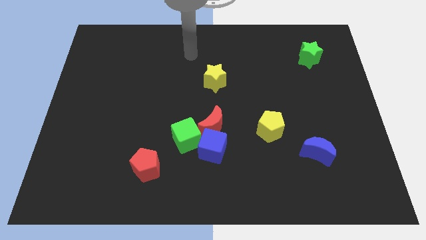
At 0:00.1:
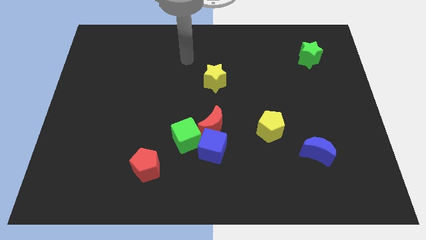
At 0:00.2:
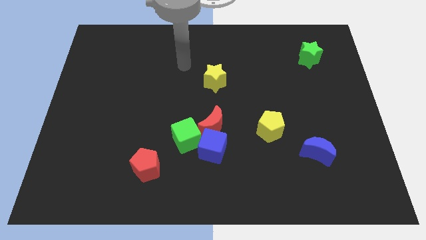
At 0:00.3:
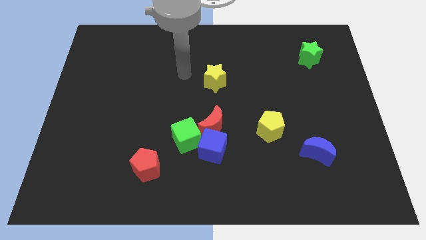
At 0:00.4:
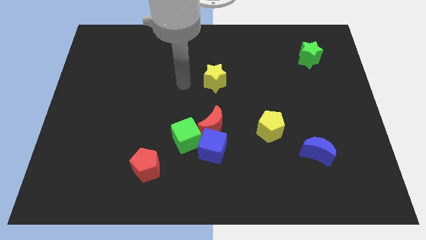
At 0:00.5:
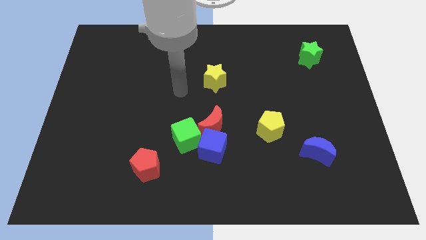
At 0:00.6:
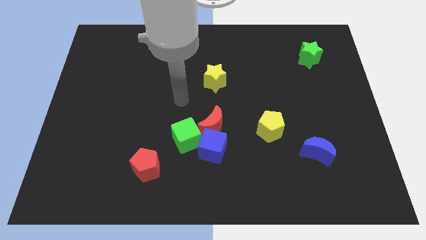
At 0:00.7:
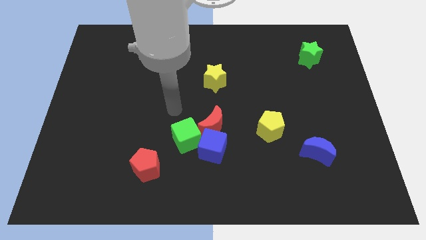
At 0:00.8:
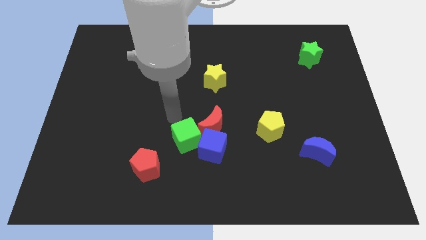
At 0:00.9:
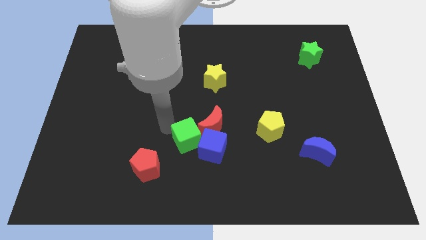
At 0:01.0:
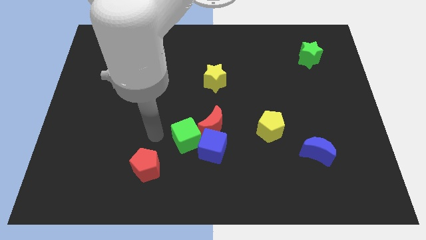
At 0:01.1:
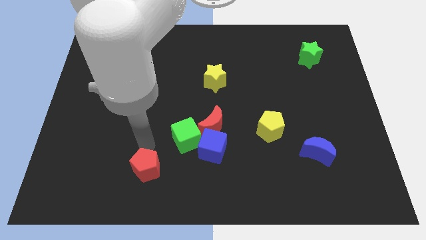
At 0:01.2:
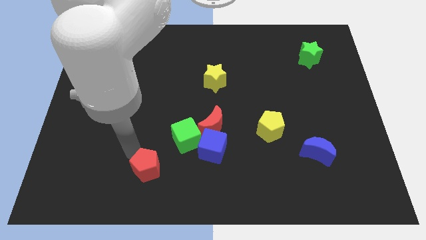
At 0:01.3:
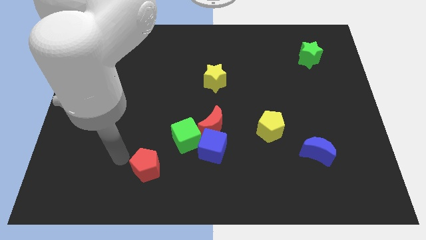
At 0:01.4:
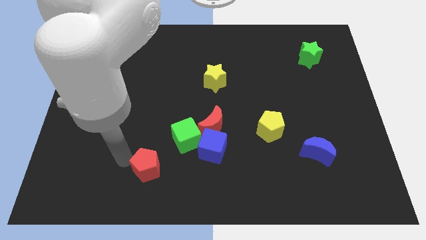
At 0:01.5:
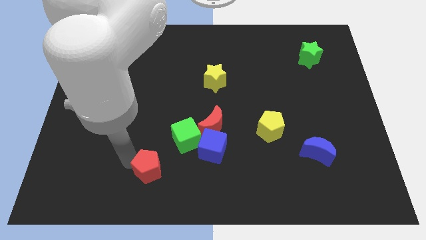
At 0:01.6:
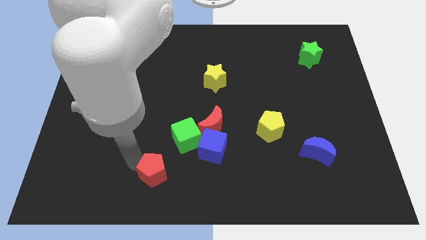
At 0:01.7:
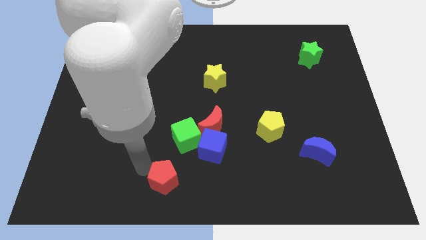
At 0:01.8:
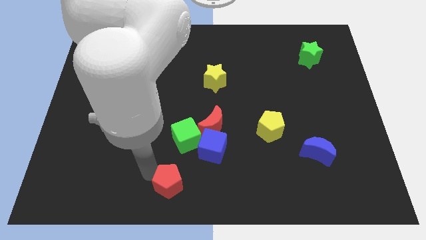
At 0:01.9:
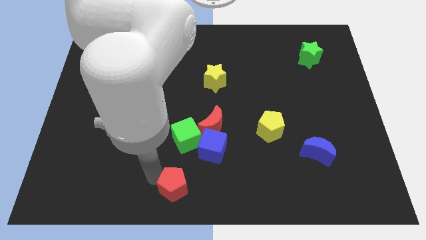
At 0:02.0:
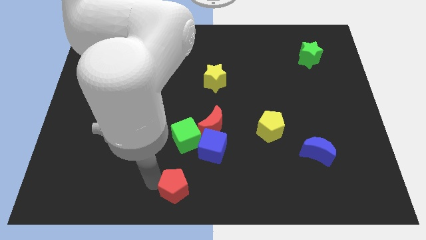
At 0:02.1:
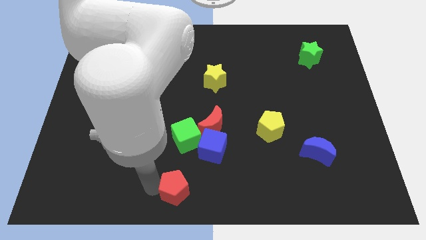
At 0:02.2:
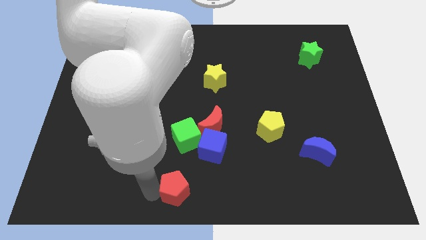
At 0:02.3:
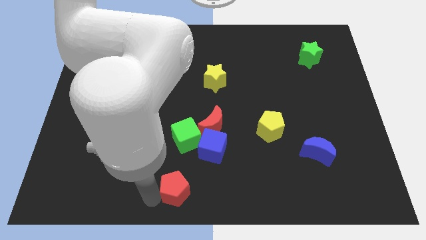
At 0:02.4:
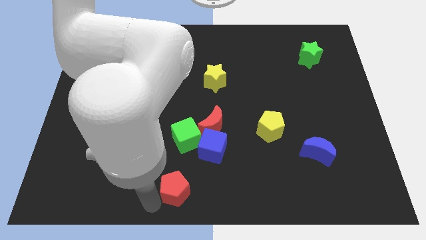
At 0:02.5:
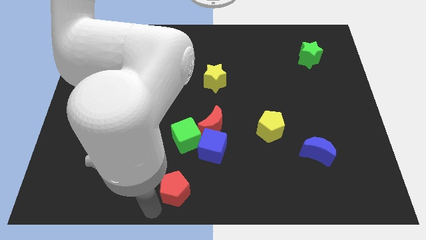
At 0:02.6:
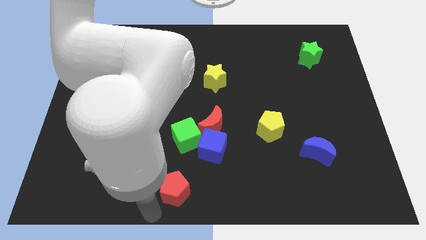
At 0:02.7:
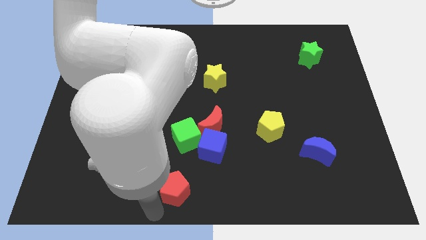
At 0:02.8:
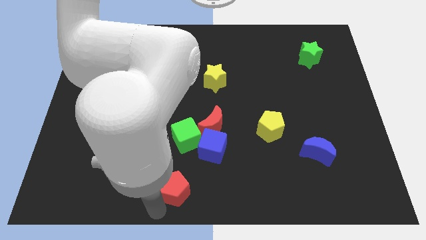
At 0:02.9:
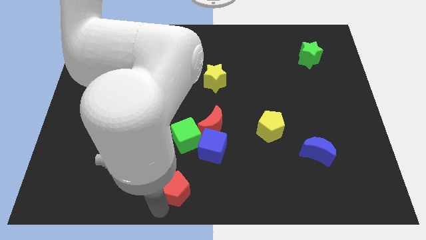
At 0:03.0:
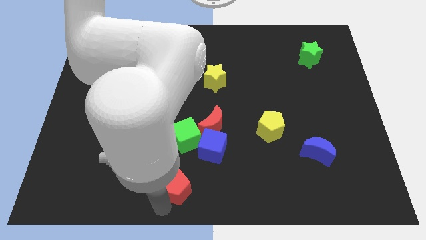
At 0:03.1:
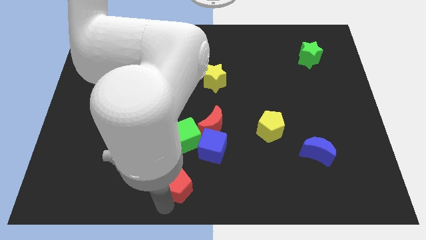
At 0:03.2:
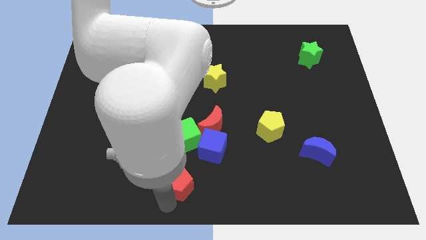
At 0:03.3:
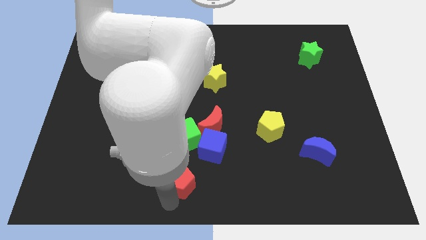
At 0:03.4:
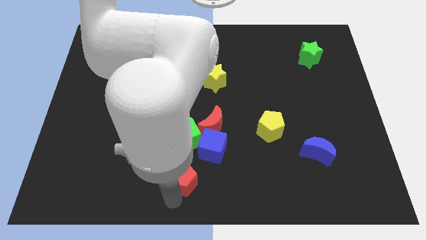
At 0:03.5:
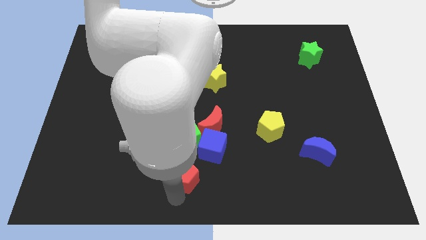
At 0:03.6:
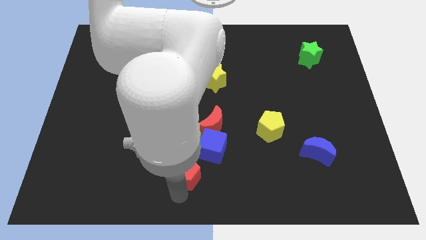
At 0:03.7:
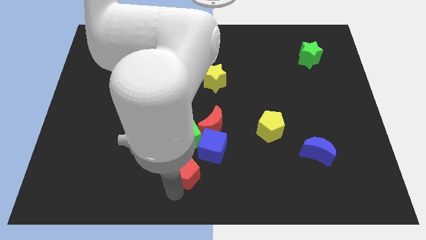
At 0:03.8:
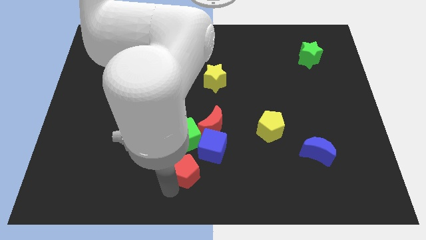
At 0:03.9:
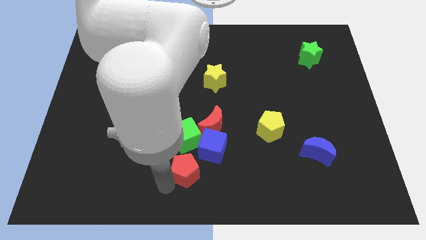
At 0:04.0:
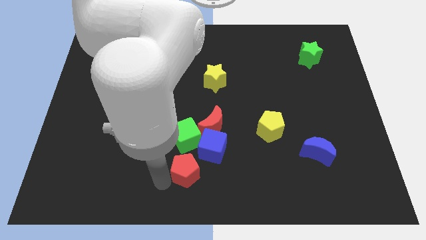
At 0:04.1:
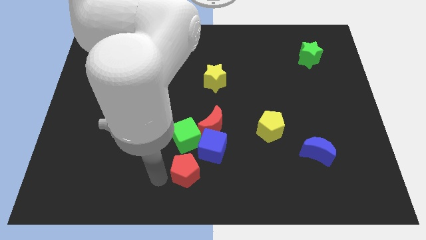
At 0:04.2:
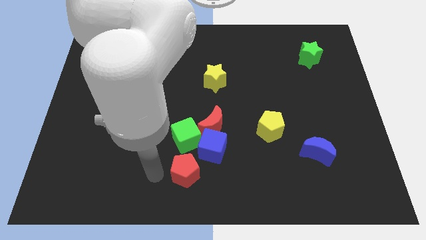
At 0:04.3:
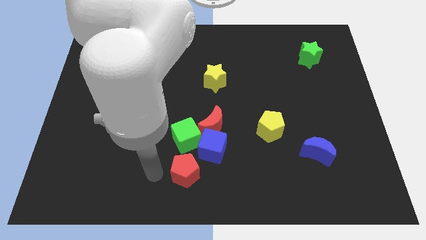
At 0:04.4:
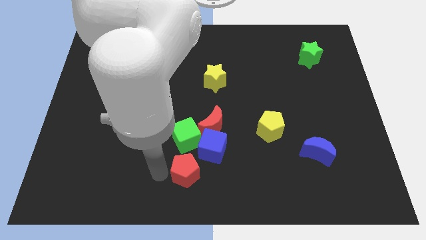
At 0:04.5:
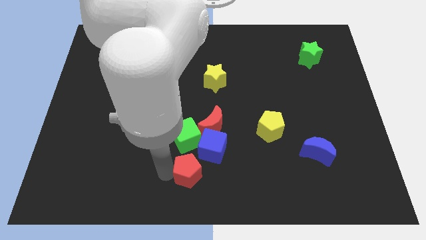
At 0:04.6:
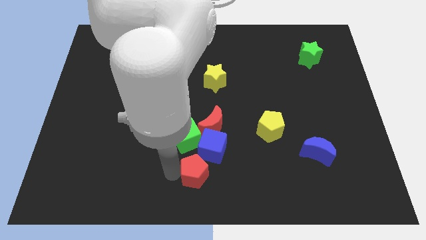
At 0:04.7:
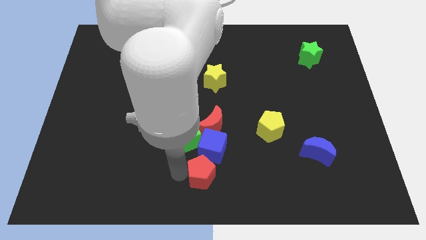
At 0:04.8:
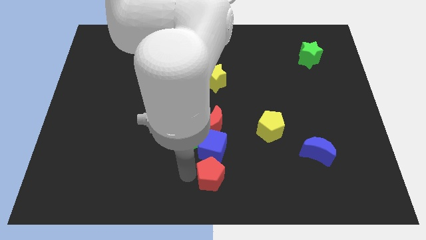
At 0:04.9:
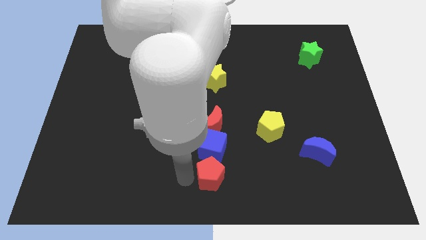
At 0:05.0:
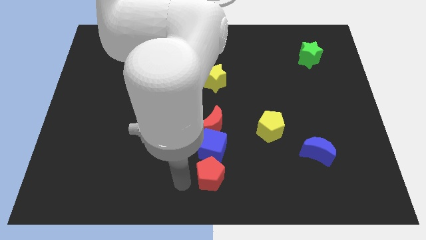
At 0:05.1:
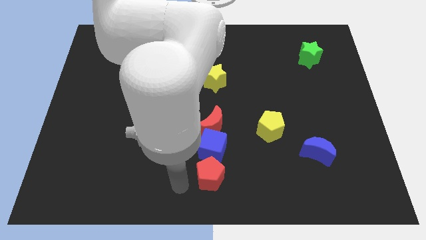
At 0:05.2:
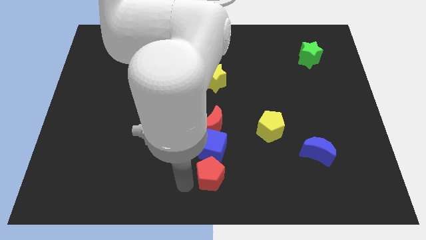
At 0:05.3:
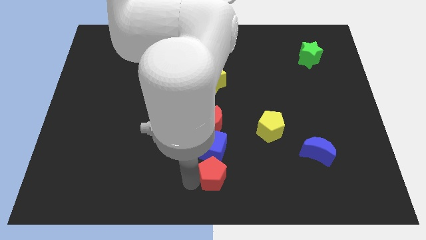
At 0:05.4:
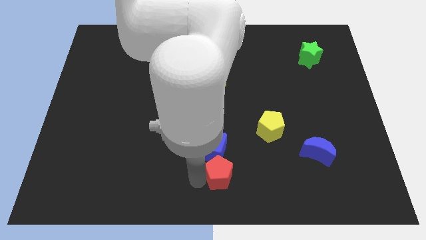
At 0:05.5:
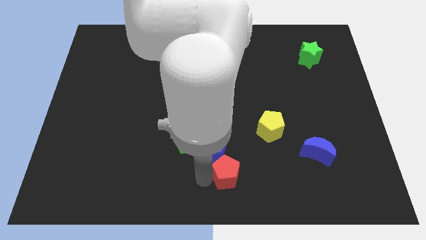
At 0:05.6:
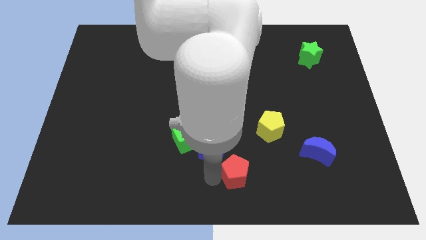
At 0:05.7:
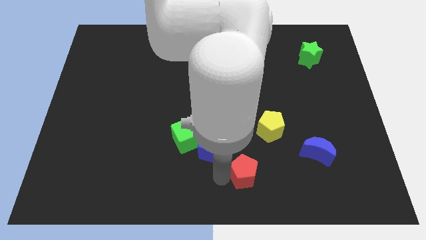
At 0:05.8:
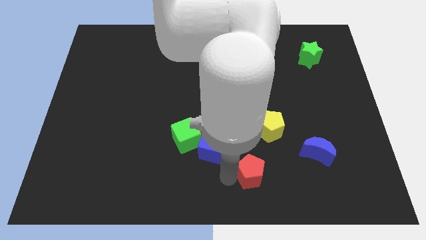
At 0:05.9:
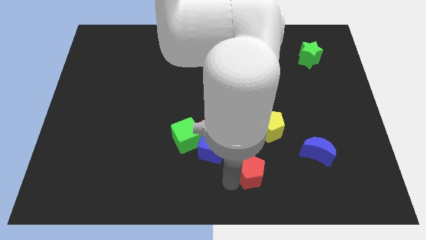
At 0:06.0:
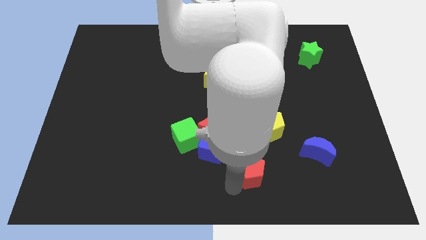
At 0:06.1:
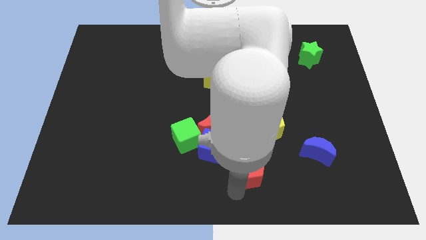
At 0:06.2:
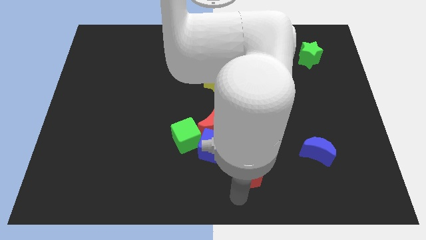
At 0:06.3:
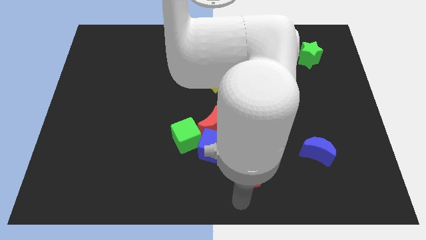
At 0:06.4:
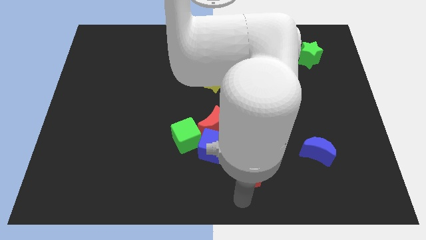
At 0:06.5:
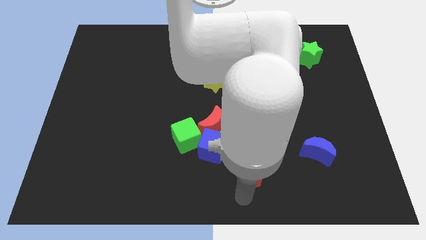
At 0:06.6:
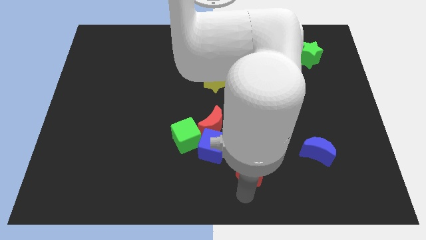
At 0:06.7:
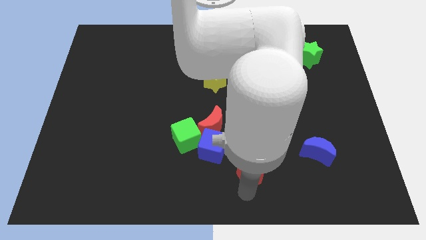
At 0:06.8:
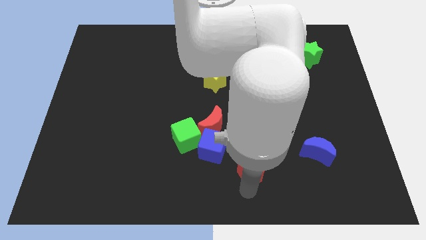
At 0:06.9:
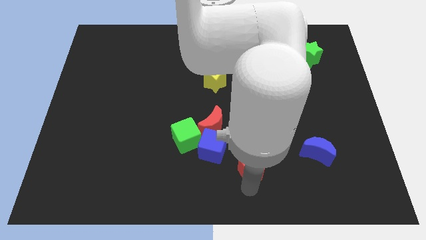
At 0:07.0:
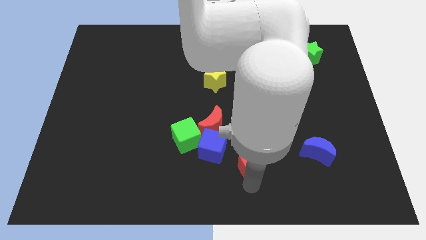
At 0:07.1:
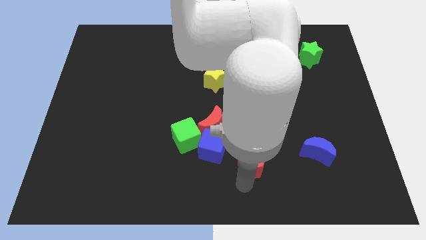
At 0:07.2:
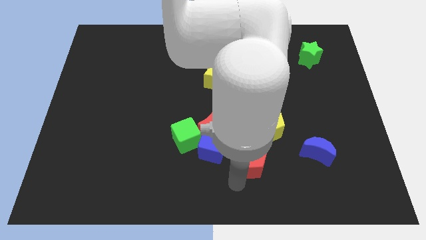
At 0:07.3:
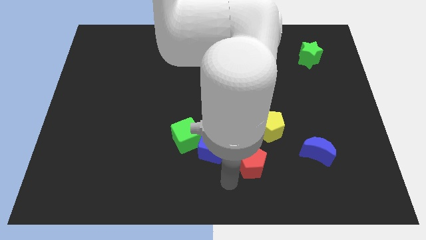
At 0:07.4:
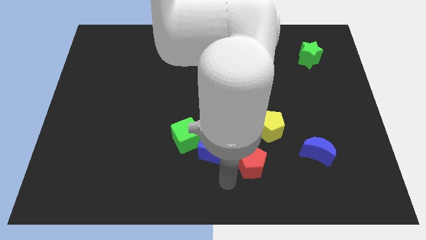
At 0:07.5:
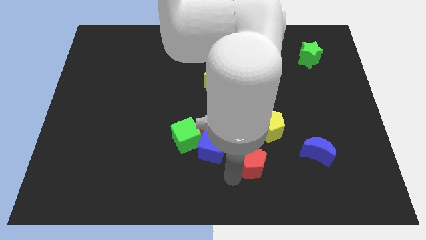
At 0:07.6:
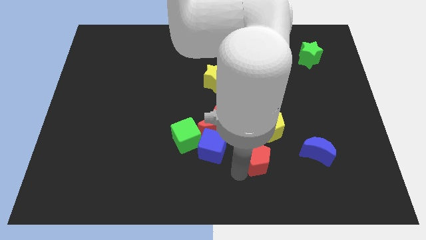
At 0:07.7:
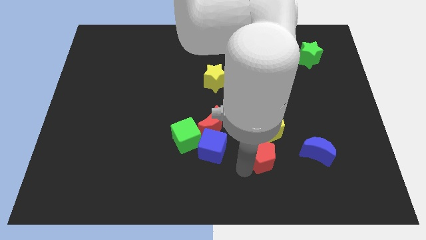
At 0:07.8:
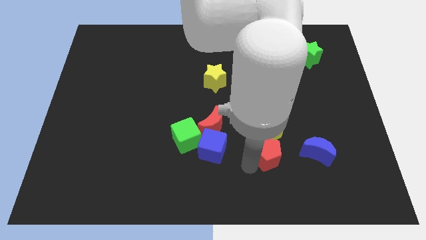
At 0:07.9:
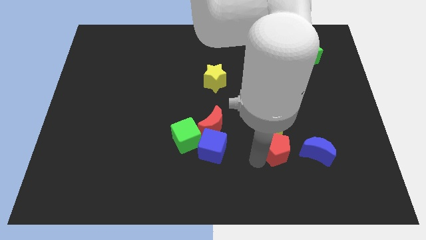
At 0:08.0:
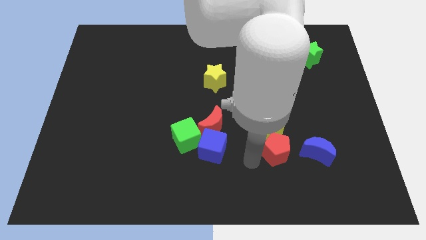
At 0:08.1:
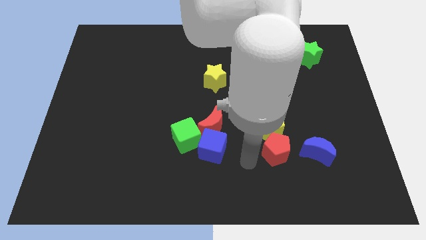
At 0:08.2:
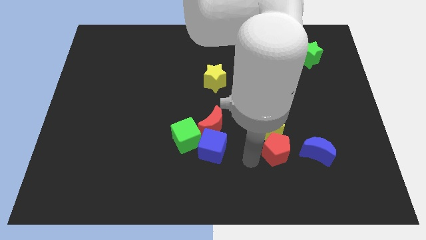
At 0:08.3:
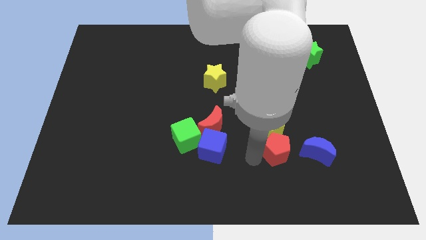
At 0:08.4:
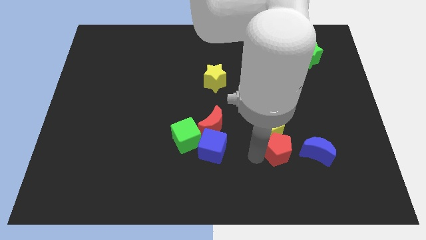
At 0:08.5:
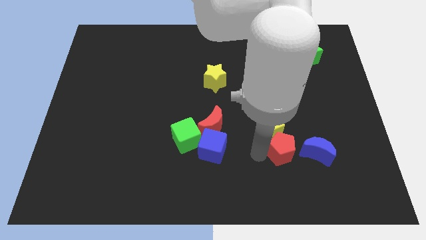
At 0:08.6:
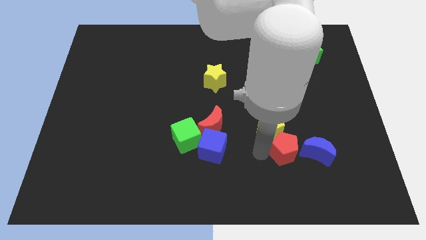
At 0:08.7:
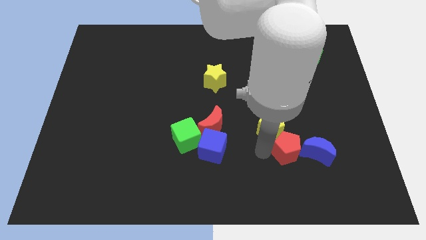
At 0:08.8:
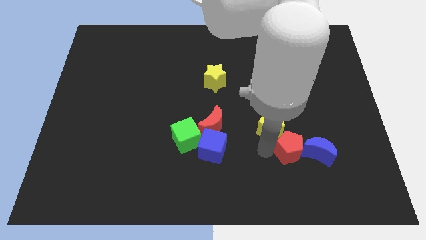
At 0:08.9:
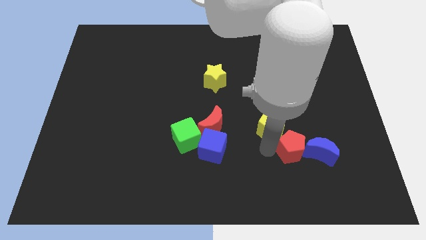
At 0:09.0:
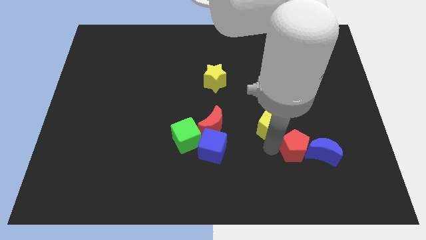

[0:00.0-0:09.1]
push the red pentagon to the right of the yellow pentagon
